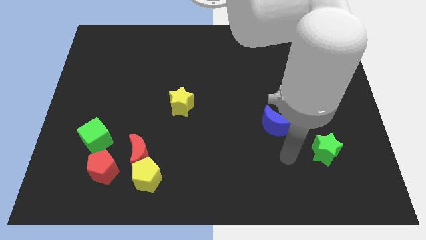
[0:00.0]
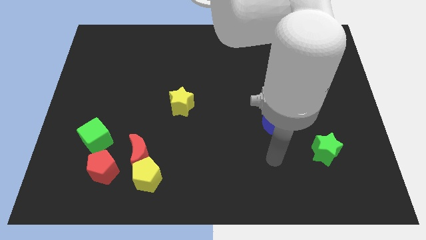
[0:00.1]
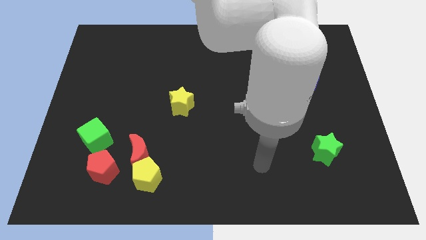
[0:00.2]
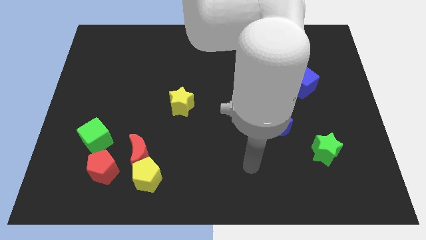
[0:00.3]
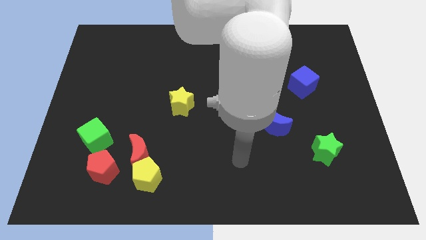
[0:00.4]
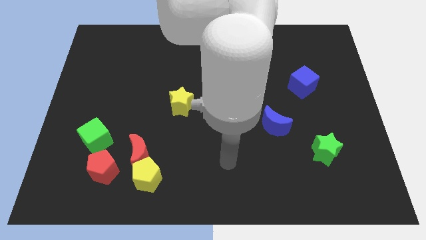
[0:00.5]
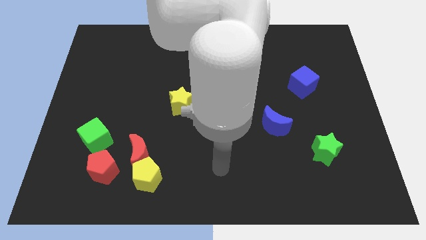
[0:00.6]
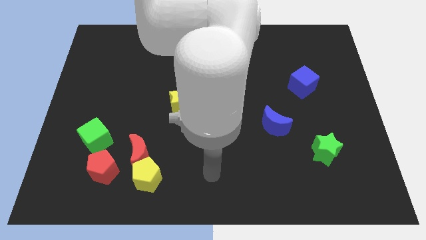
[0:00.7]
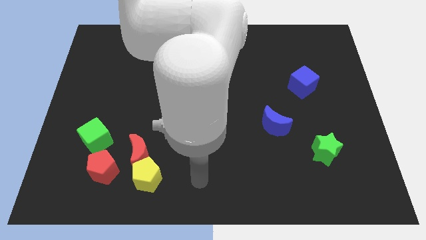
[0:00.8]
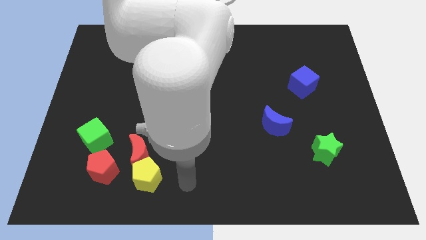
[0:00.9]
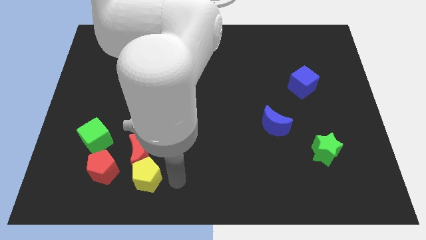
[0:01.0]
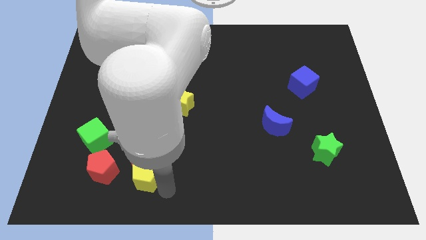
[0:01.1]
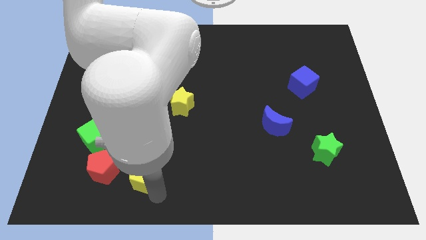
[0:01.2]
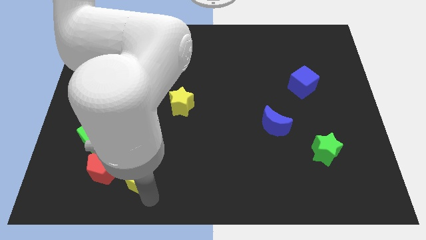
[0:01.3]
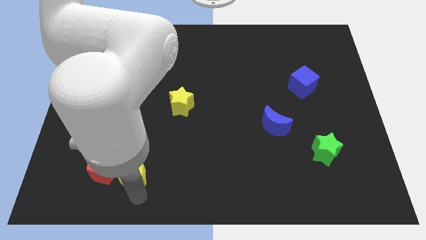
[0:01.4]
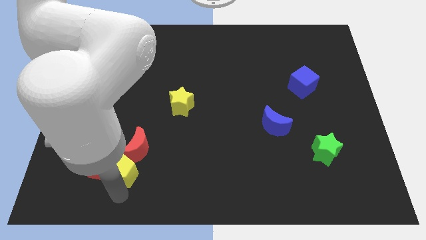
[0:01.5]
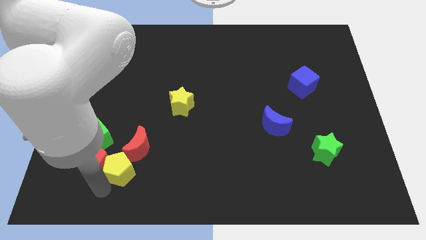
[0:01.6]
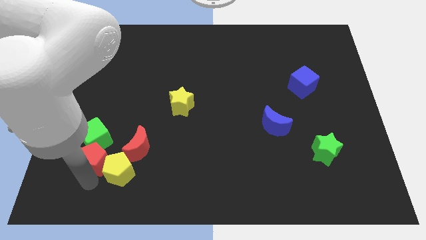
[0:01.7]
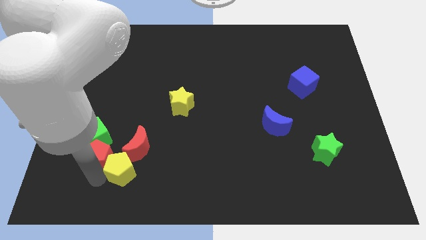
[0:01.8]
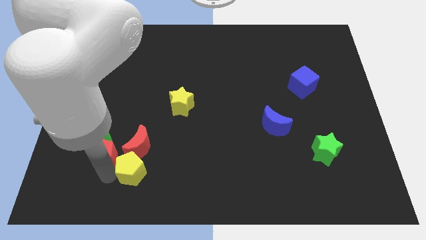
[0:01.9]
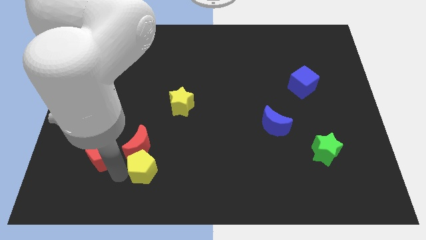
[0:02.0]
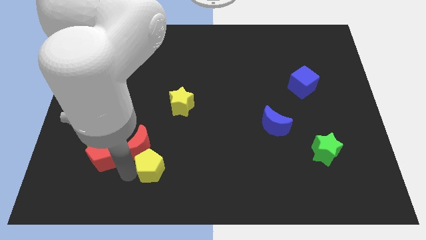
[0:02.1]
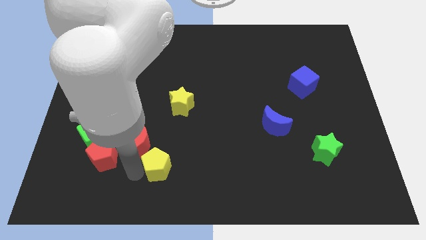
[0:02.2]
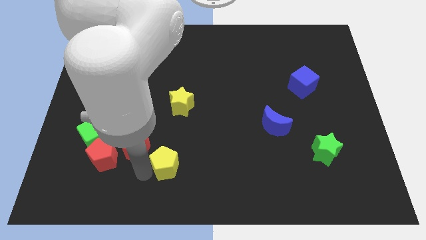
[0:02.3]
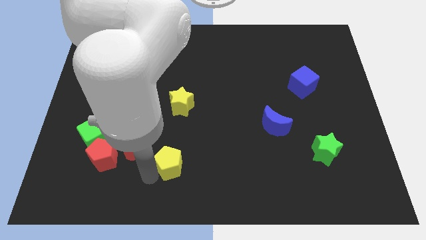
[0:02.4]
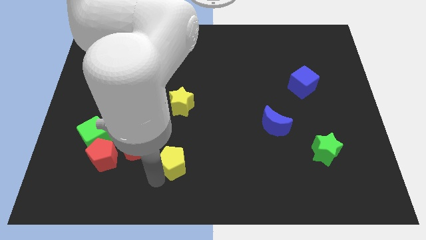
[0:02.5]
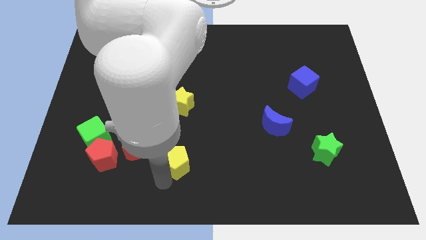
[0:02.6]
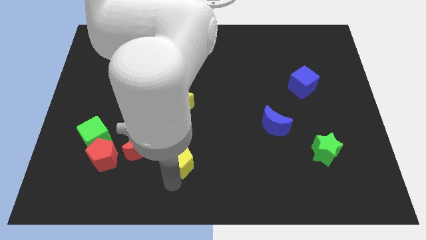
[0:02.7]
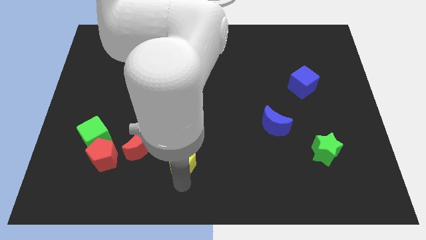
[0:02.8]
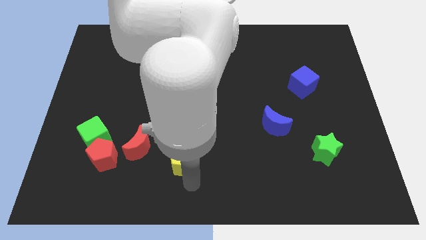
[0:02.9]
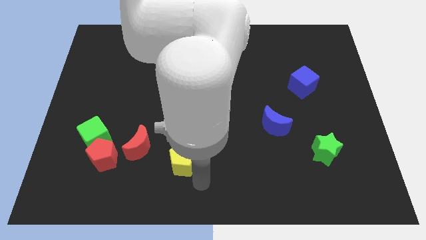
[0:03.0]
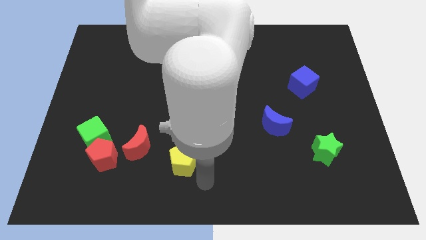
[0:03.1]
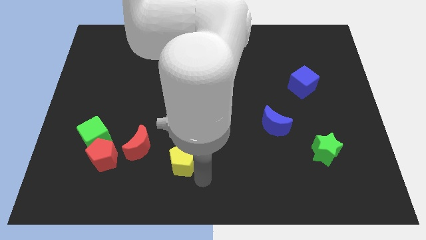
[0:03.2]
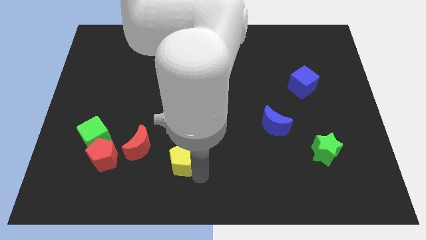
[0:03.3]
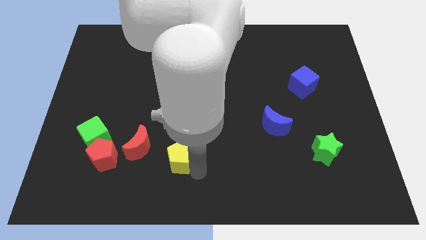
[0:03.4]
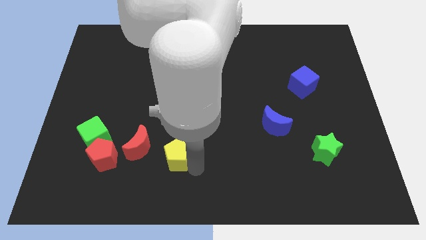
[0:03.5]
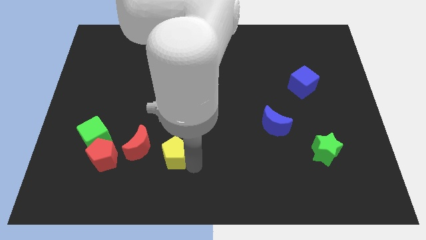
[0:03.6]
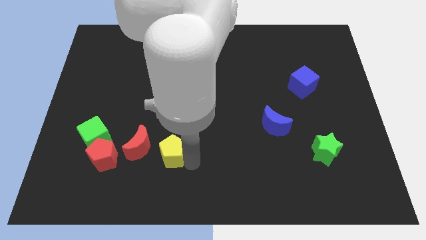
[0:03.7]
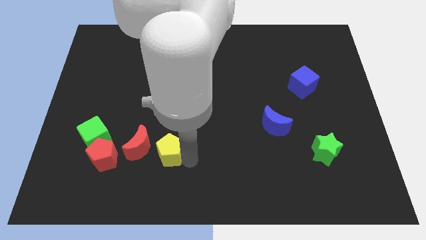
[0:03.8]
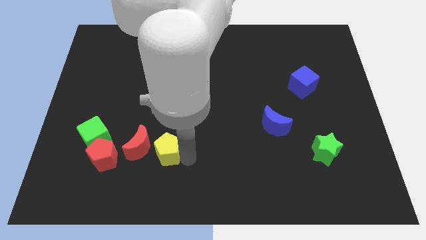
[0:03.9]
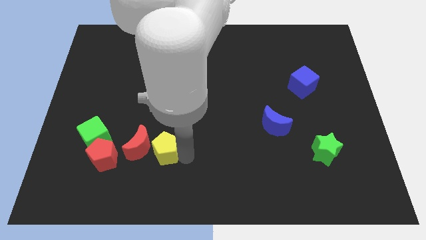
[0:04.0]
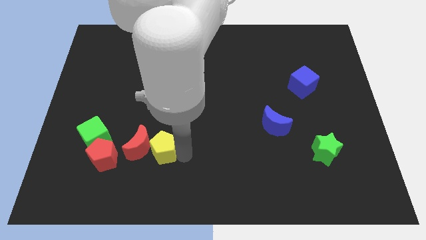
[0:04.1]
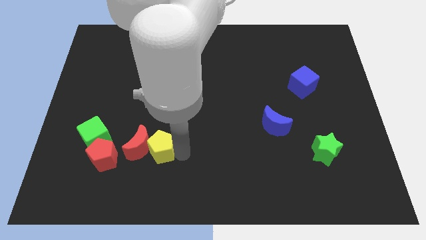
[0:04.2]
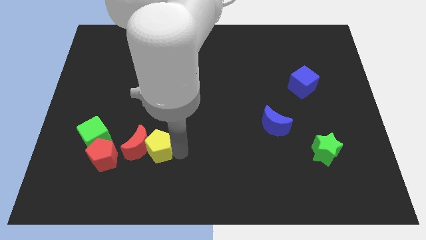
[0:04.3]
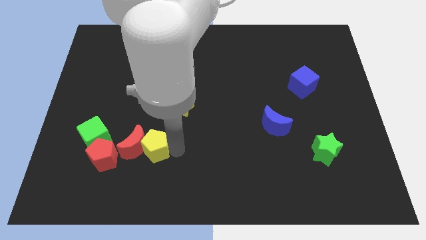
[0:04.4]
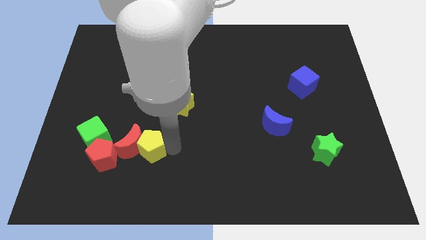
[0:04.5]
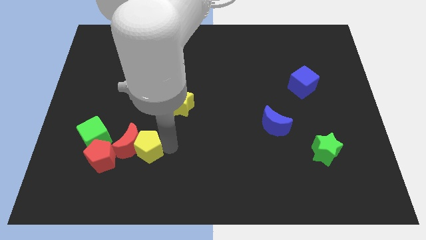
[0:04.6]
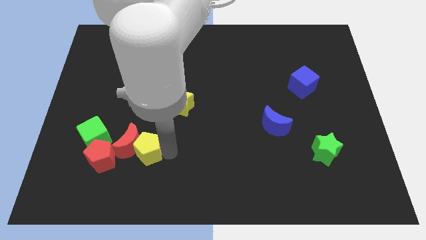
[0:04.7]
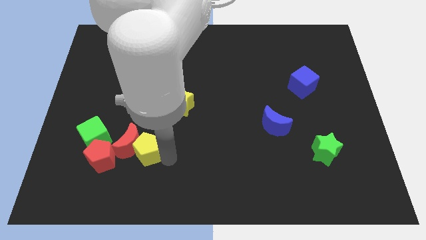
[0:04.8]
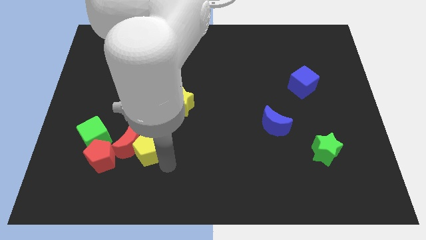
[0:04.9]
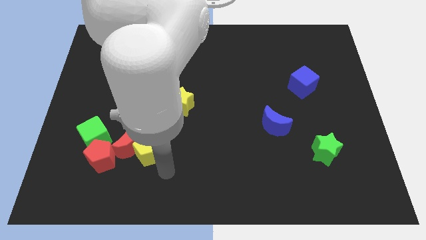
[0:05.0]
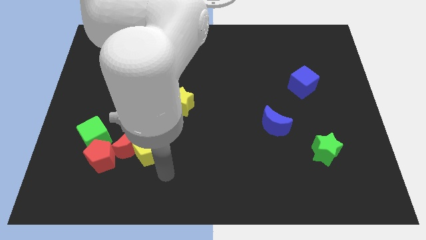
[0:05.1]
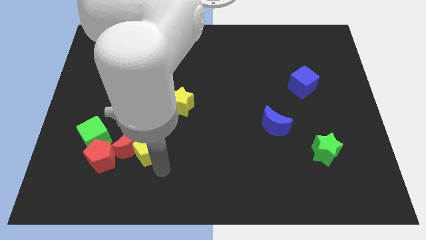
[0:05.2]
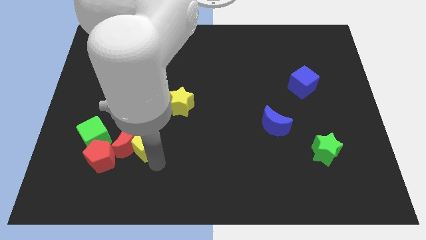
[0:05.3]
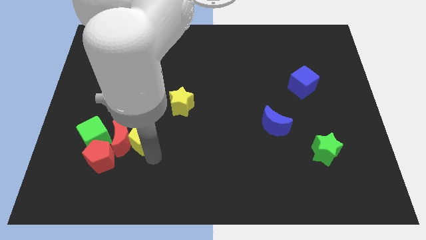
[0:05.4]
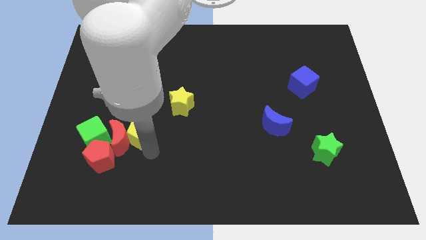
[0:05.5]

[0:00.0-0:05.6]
slide the yellow pentagon up and left diagonally slightly

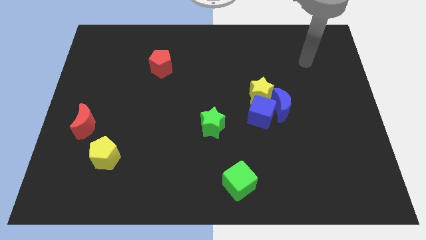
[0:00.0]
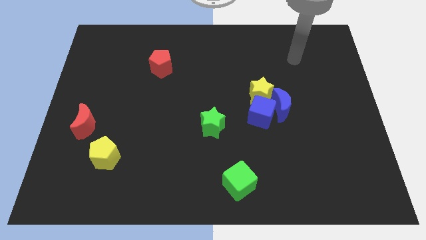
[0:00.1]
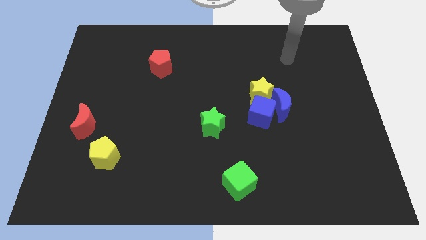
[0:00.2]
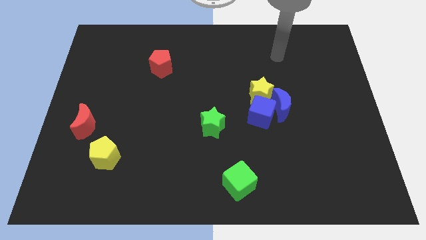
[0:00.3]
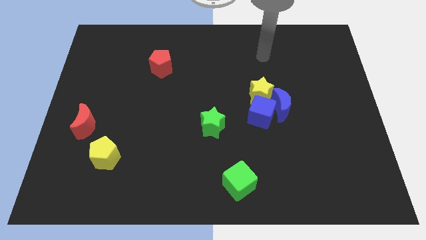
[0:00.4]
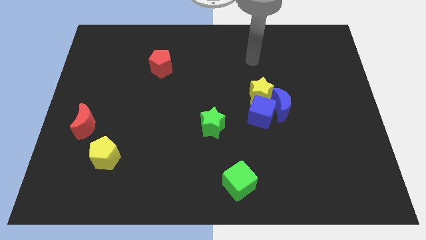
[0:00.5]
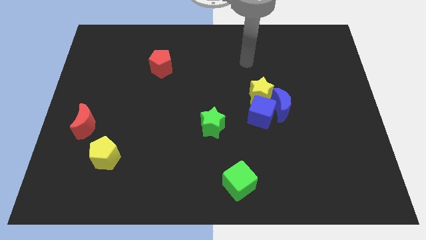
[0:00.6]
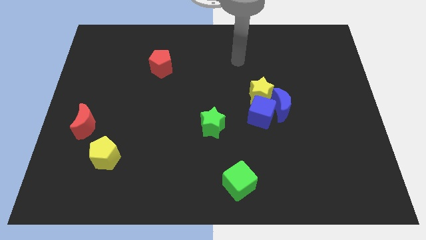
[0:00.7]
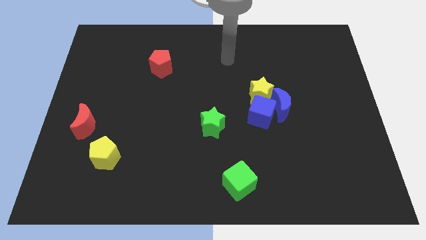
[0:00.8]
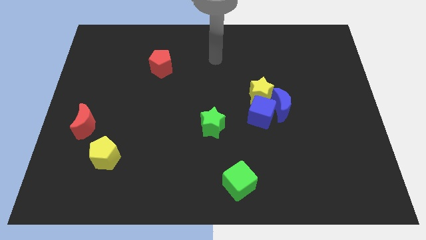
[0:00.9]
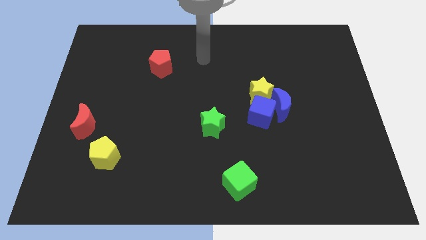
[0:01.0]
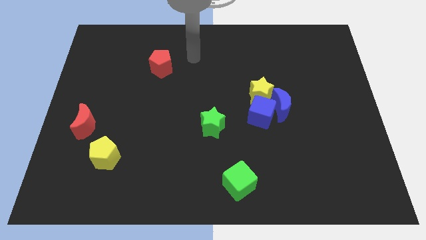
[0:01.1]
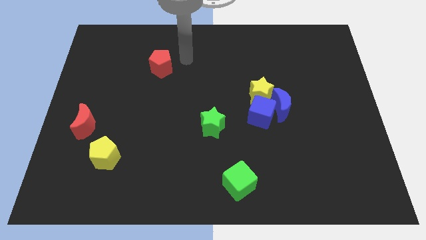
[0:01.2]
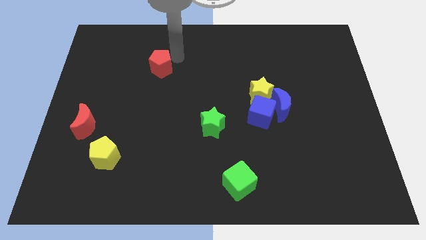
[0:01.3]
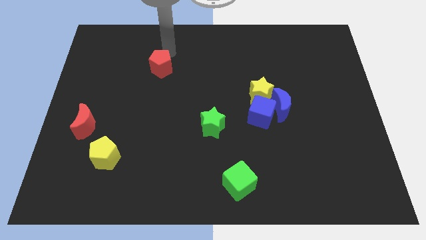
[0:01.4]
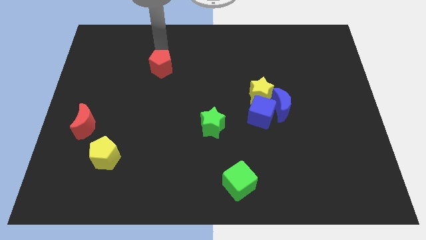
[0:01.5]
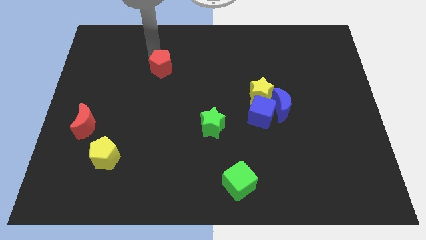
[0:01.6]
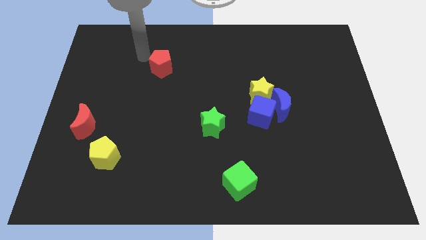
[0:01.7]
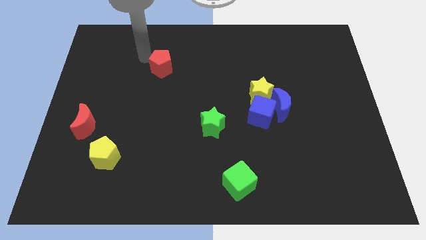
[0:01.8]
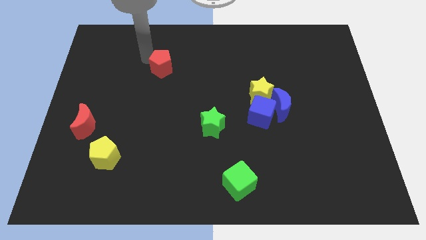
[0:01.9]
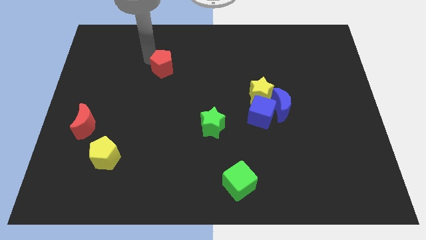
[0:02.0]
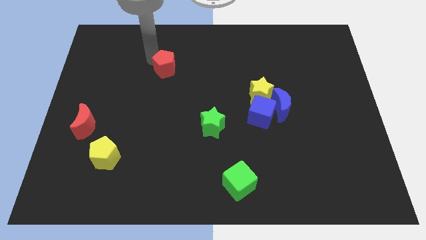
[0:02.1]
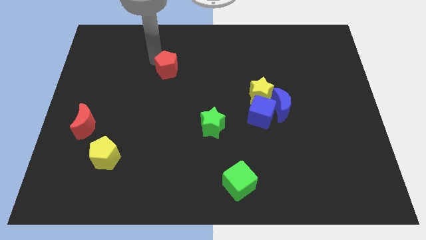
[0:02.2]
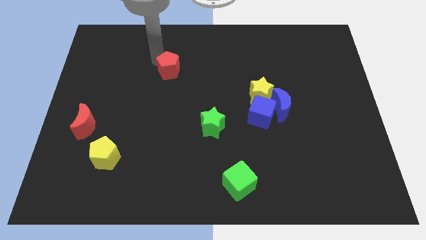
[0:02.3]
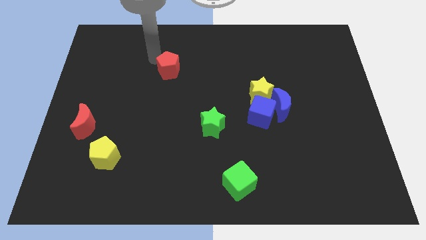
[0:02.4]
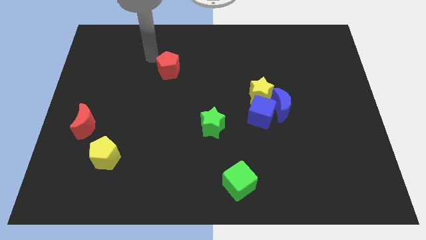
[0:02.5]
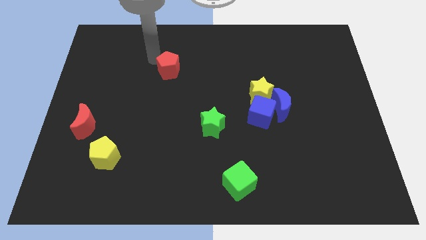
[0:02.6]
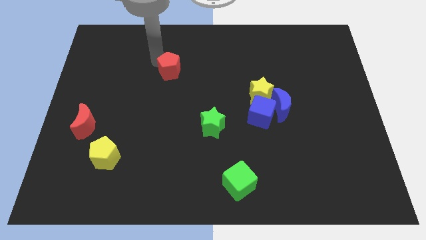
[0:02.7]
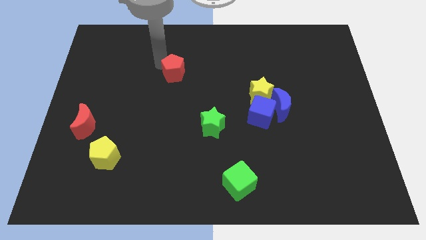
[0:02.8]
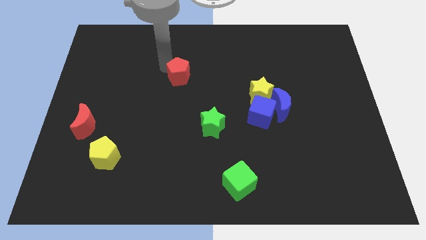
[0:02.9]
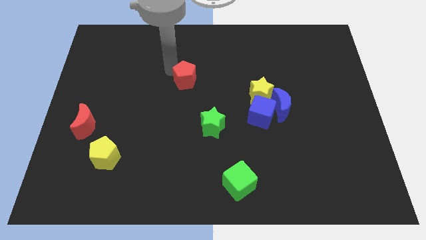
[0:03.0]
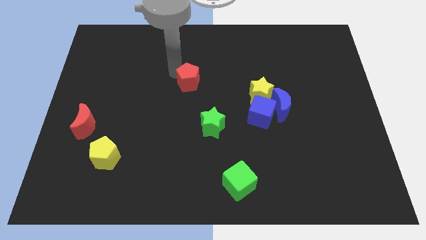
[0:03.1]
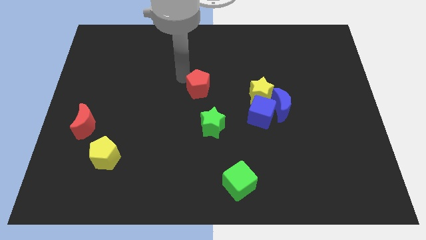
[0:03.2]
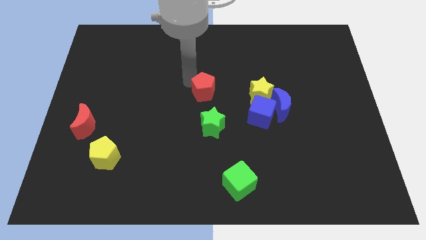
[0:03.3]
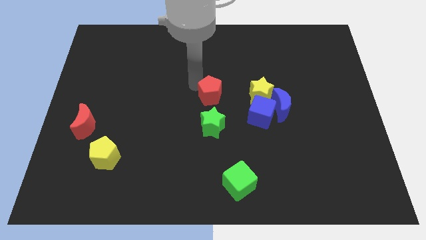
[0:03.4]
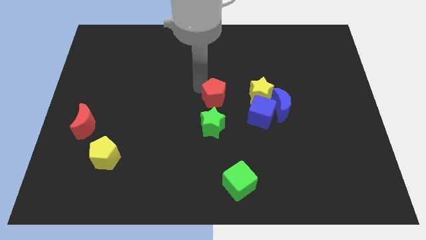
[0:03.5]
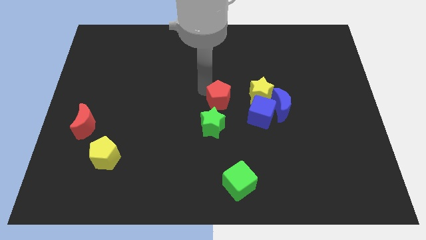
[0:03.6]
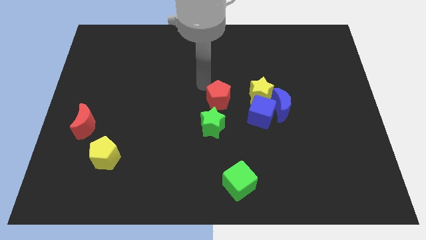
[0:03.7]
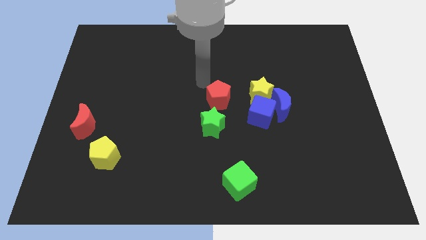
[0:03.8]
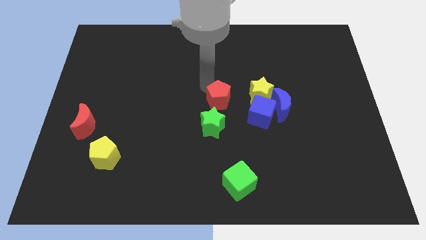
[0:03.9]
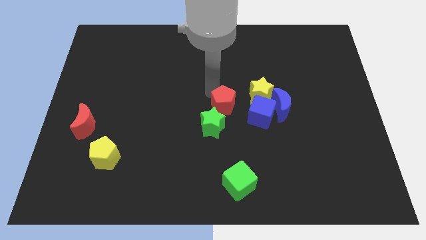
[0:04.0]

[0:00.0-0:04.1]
slide the red pentagon down and to the right diagonally
